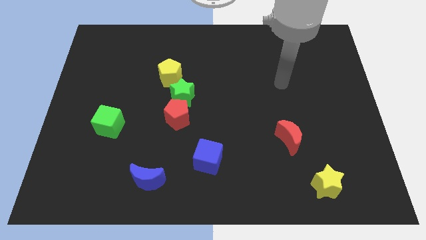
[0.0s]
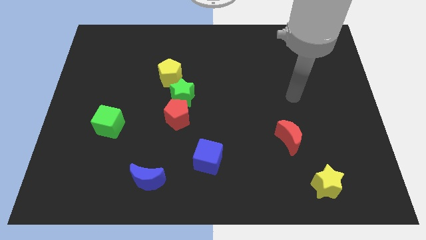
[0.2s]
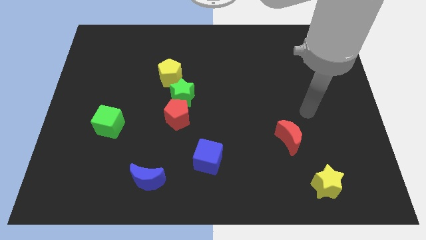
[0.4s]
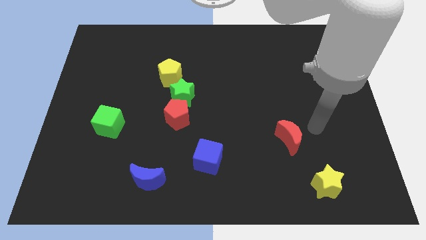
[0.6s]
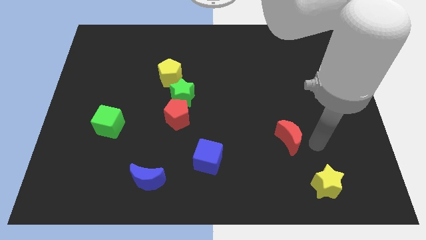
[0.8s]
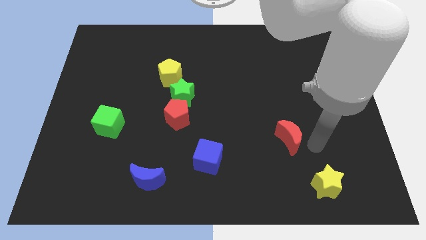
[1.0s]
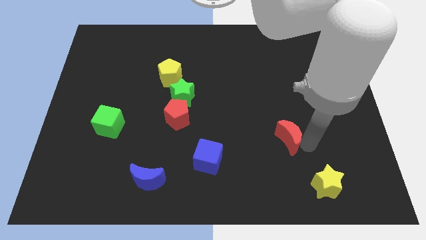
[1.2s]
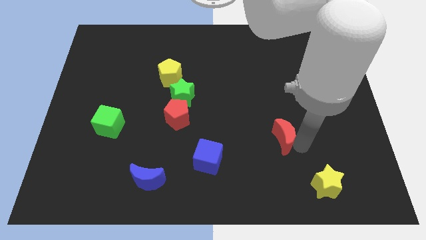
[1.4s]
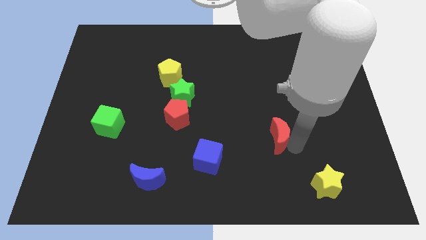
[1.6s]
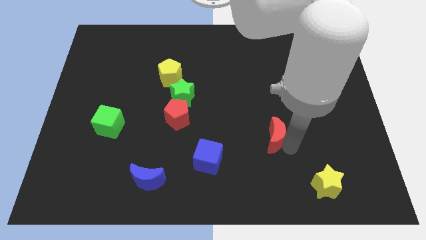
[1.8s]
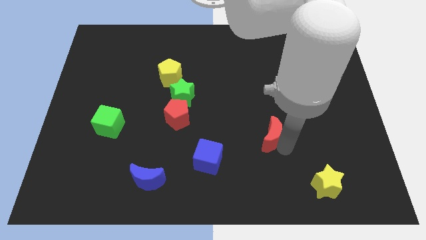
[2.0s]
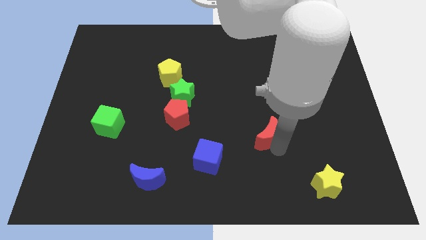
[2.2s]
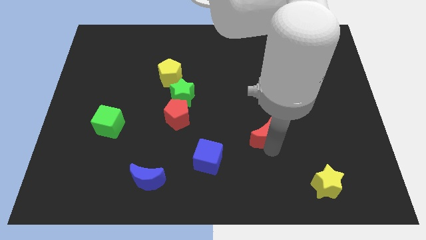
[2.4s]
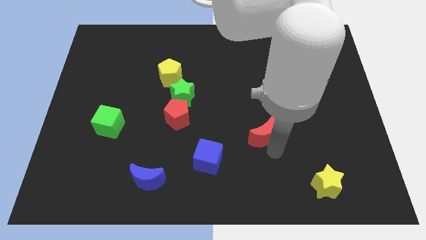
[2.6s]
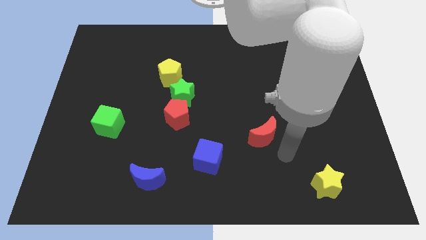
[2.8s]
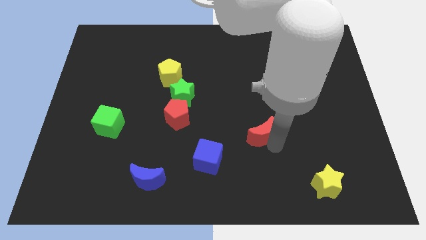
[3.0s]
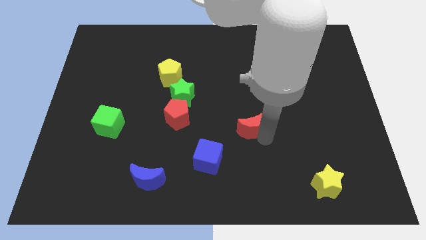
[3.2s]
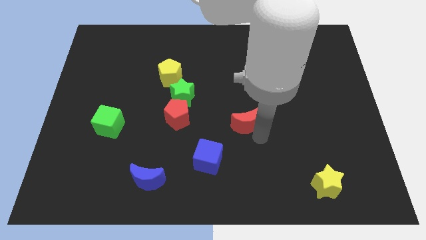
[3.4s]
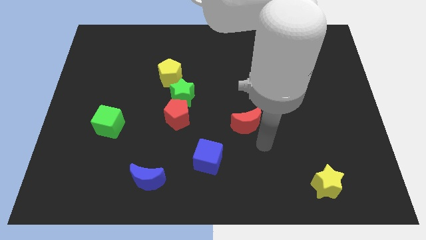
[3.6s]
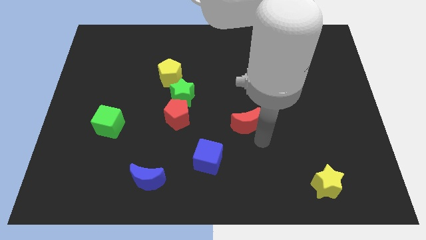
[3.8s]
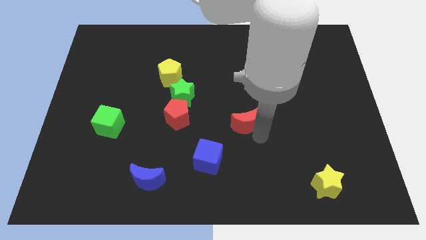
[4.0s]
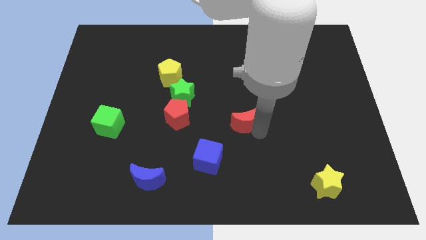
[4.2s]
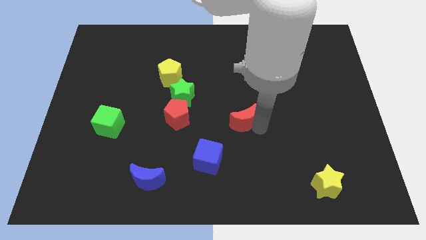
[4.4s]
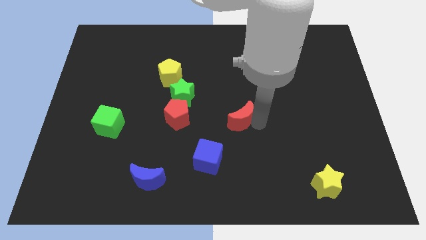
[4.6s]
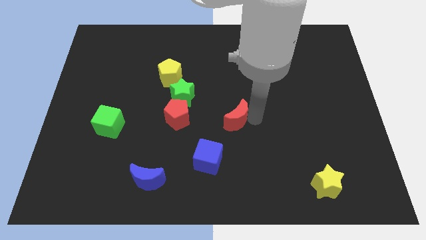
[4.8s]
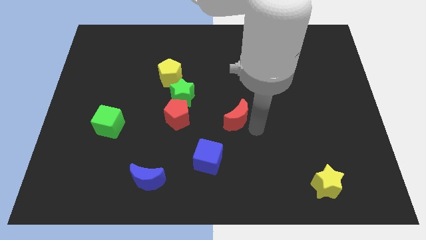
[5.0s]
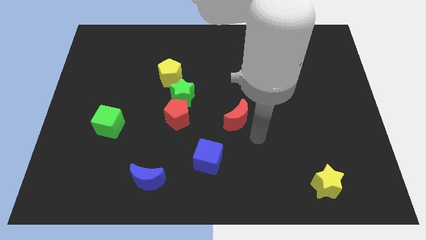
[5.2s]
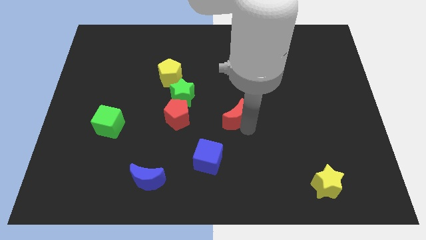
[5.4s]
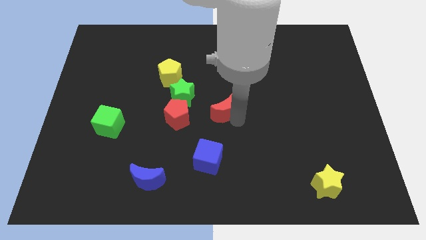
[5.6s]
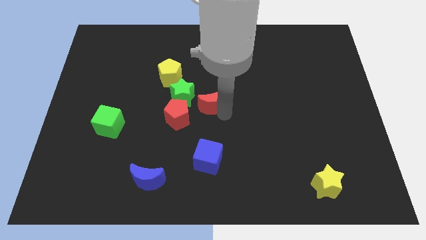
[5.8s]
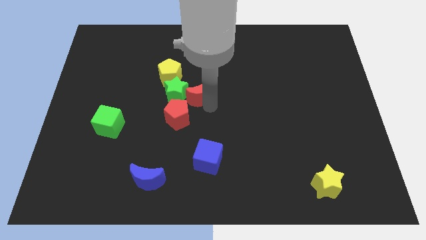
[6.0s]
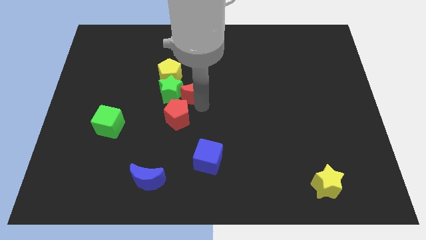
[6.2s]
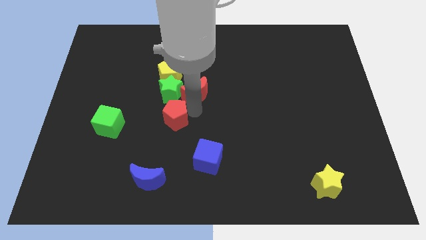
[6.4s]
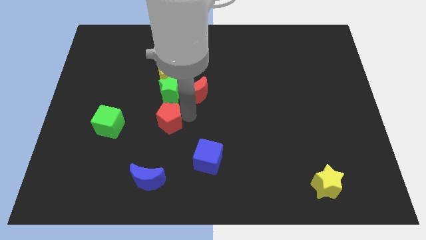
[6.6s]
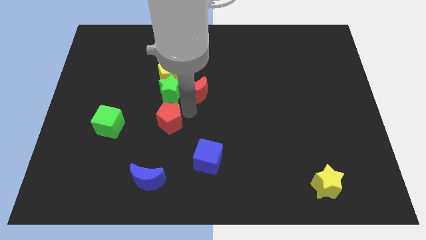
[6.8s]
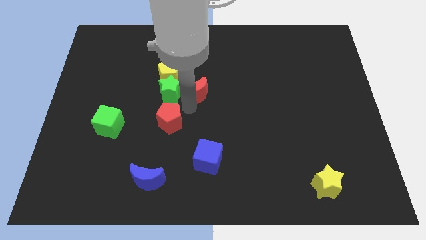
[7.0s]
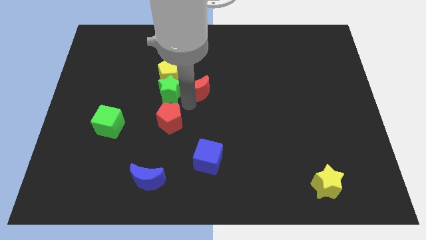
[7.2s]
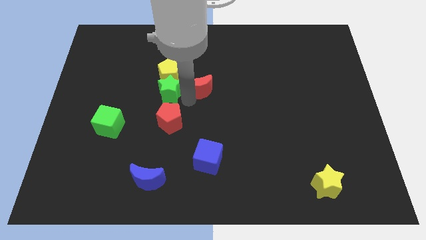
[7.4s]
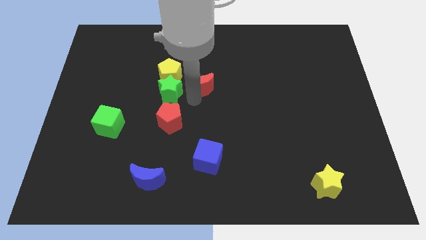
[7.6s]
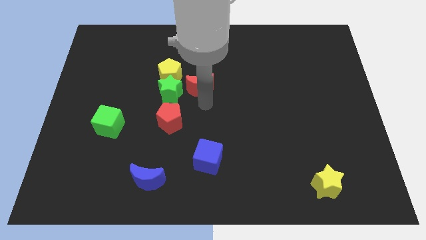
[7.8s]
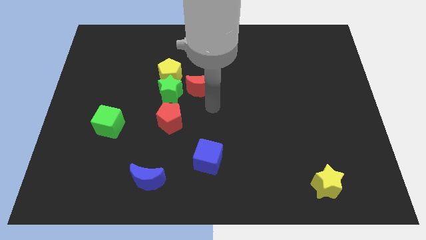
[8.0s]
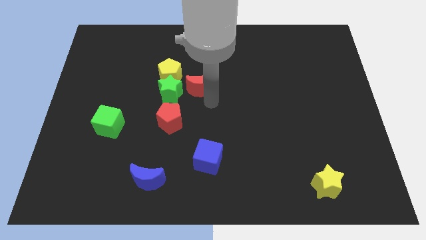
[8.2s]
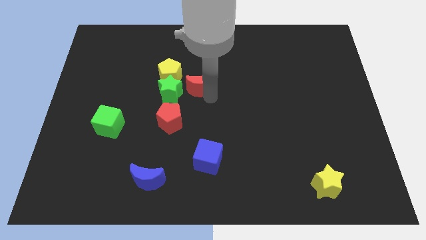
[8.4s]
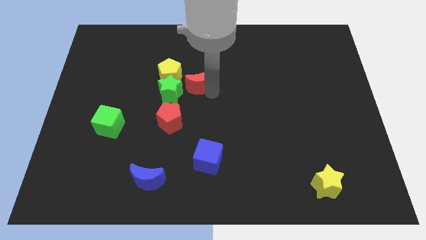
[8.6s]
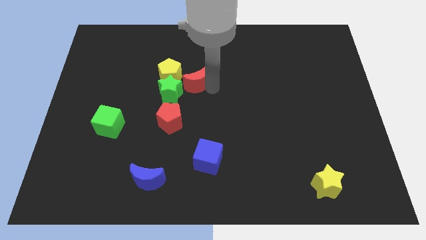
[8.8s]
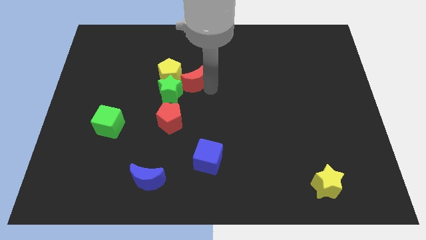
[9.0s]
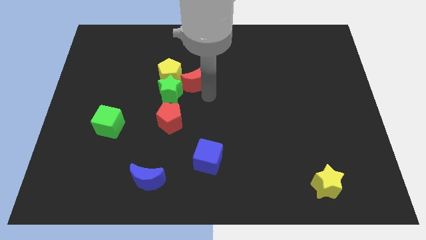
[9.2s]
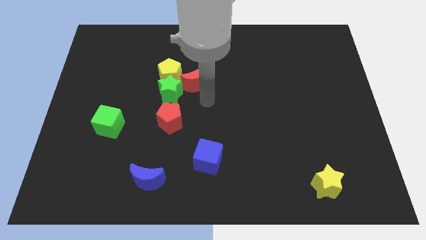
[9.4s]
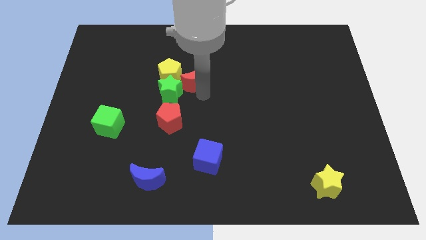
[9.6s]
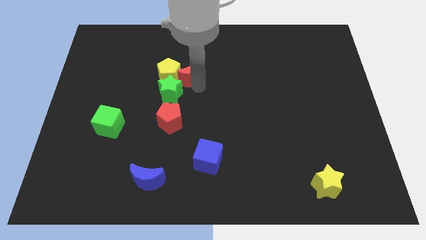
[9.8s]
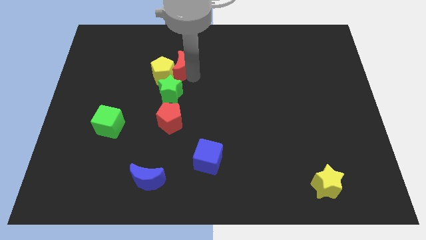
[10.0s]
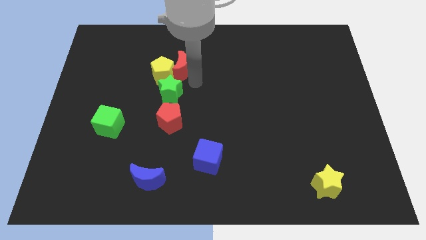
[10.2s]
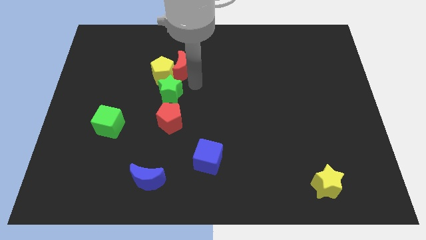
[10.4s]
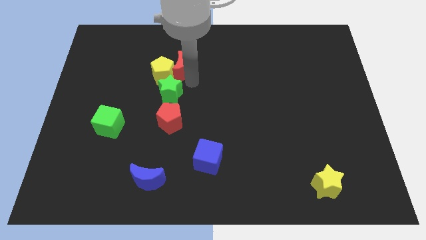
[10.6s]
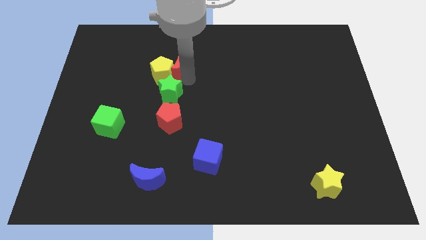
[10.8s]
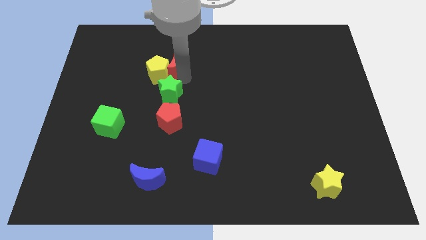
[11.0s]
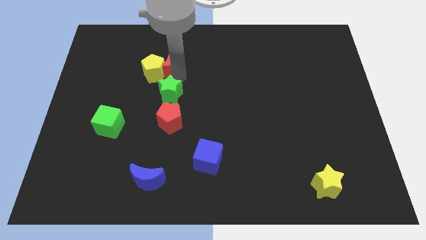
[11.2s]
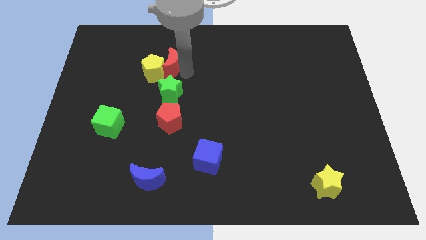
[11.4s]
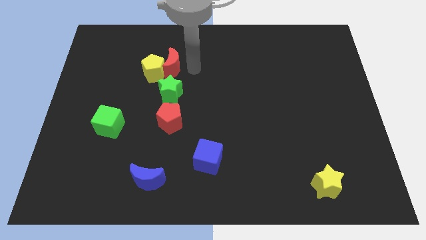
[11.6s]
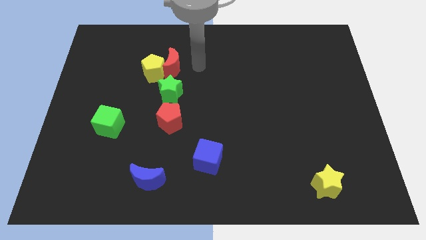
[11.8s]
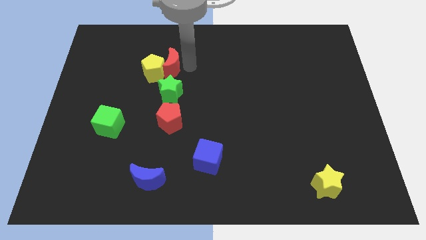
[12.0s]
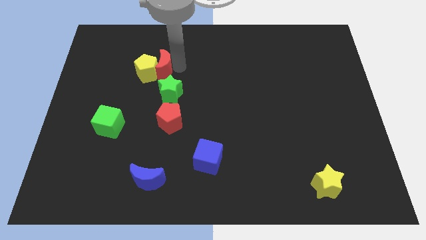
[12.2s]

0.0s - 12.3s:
put the red moon to the top left side of the green star

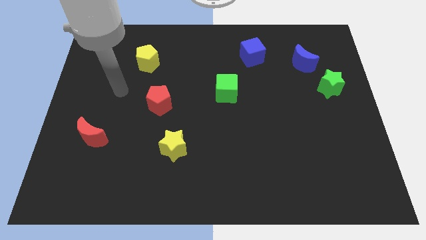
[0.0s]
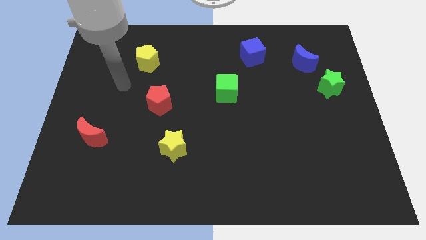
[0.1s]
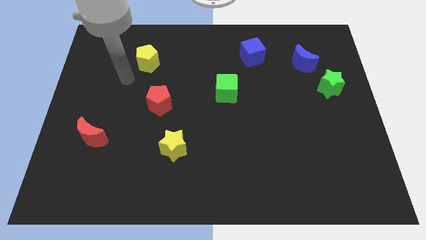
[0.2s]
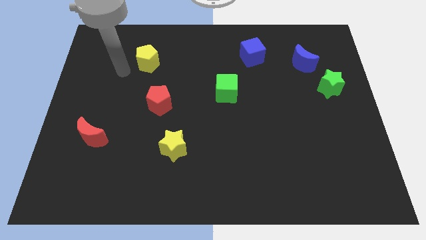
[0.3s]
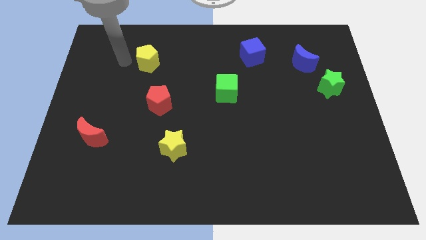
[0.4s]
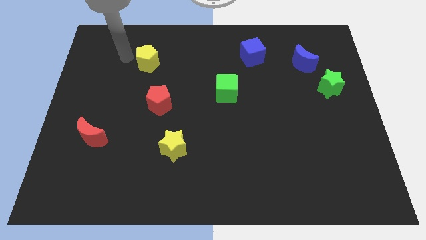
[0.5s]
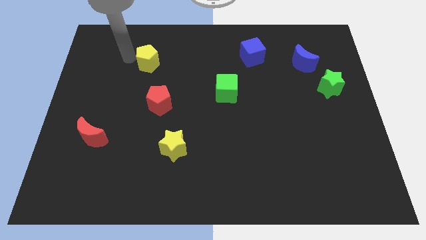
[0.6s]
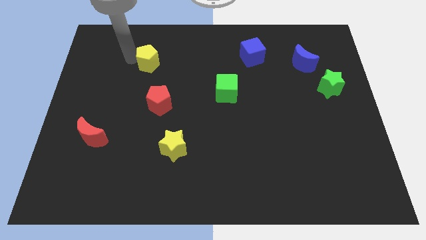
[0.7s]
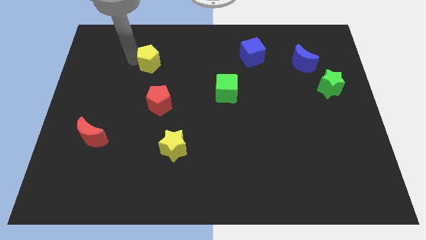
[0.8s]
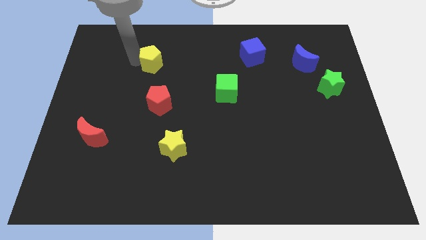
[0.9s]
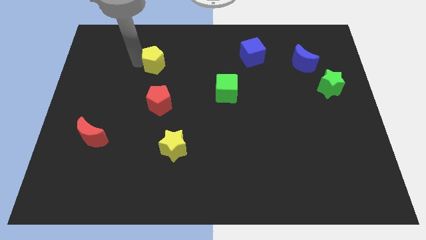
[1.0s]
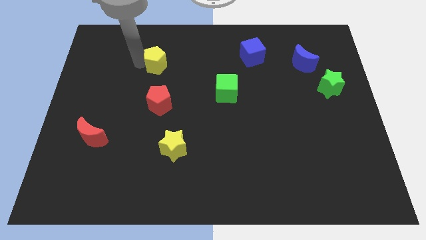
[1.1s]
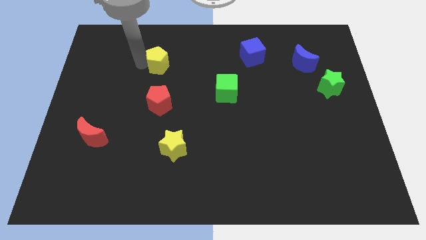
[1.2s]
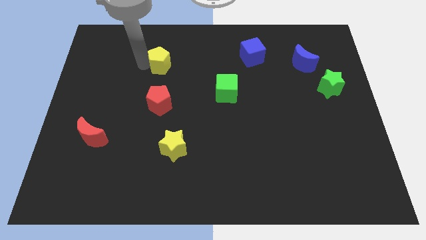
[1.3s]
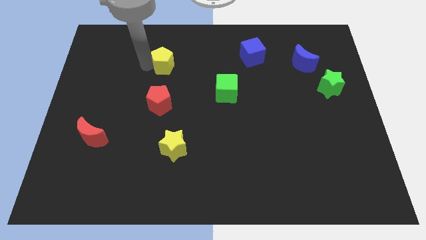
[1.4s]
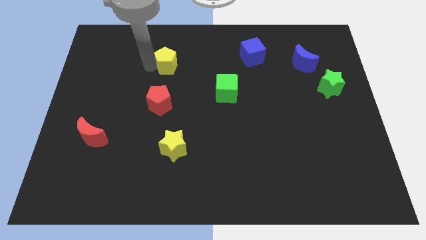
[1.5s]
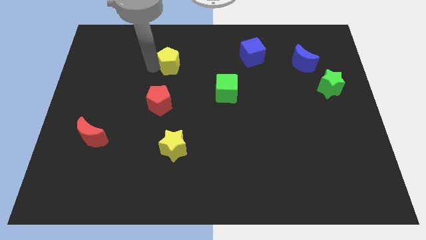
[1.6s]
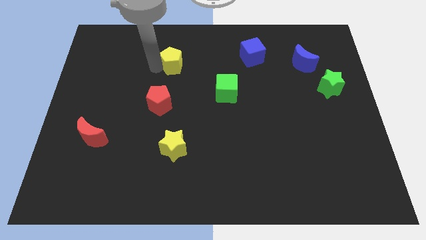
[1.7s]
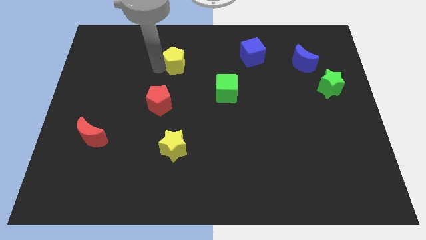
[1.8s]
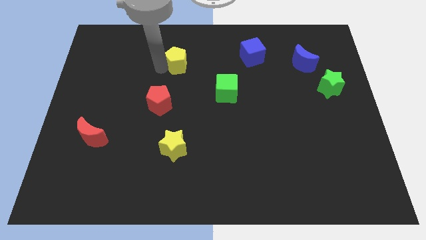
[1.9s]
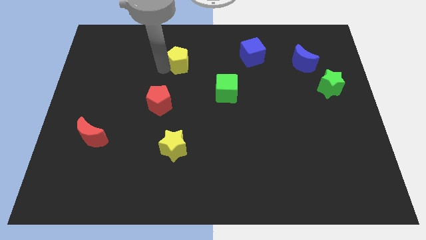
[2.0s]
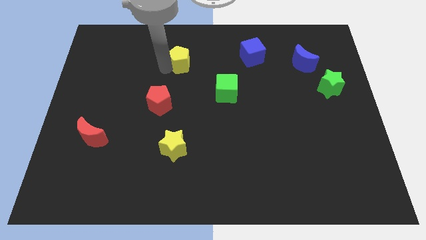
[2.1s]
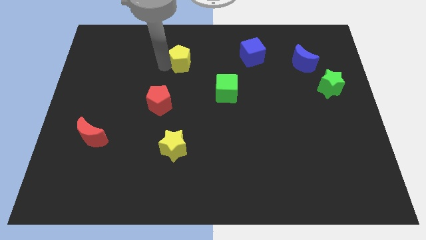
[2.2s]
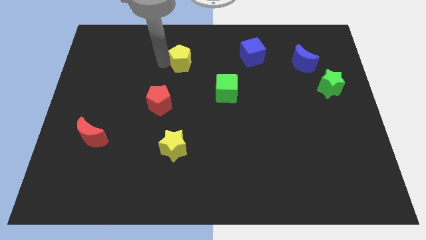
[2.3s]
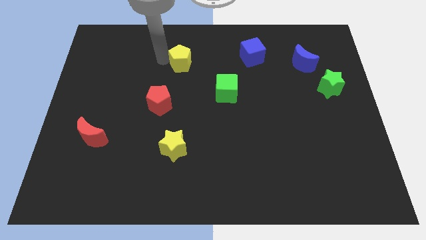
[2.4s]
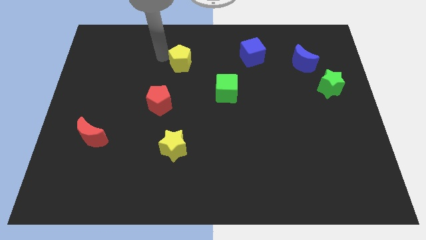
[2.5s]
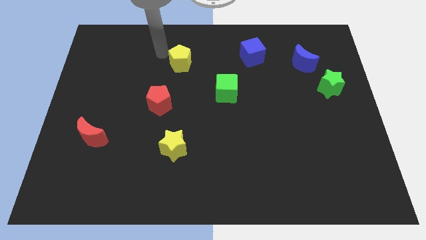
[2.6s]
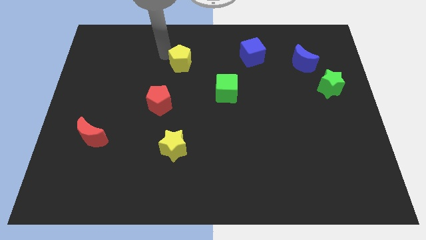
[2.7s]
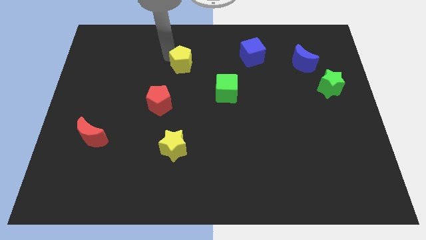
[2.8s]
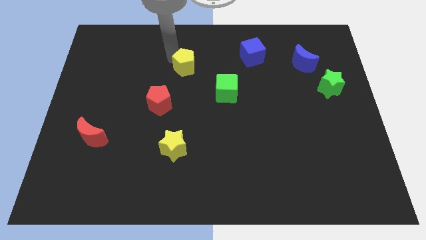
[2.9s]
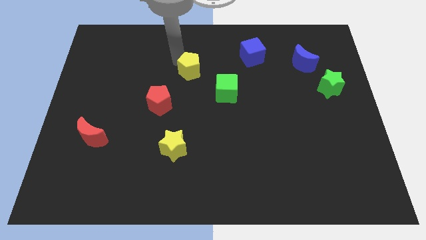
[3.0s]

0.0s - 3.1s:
push the yellow pentagon to the top left of the green cube
